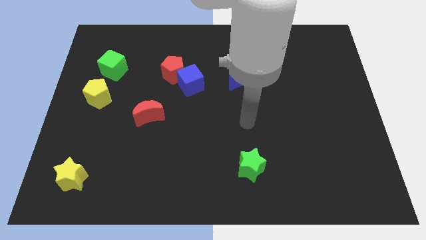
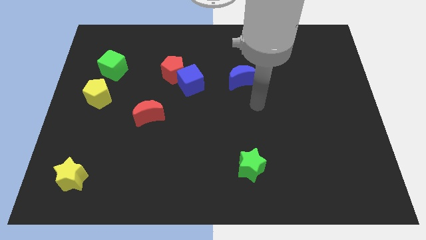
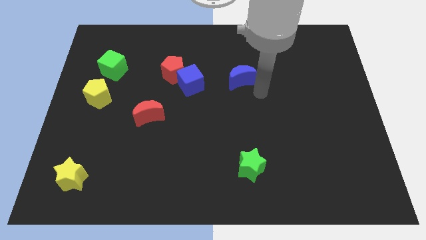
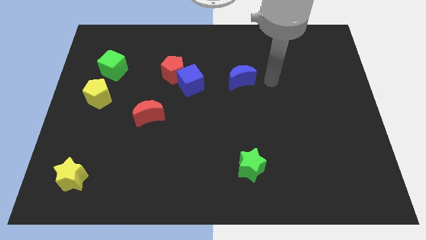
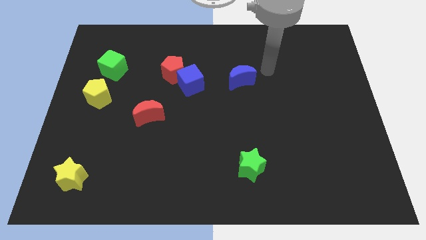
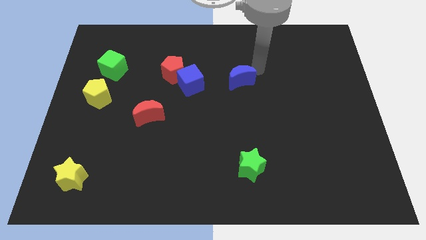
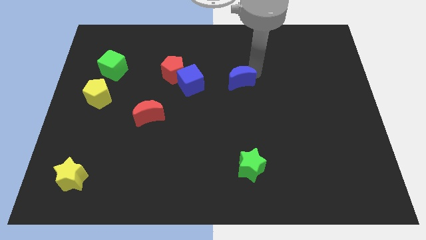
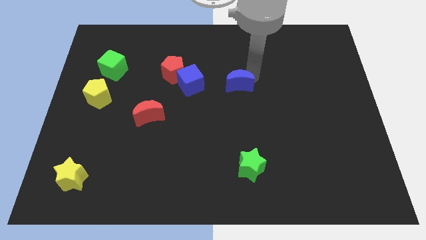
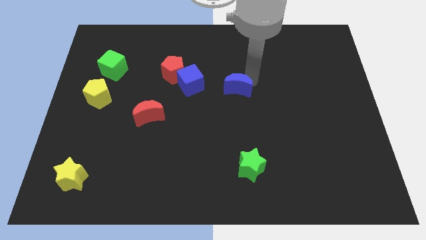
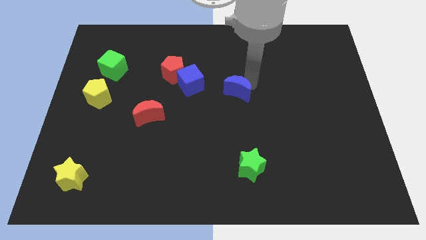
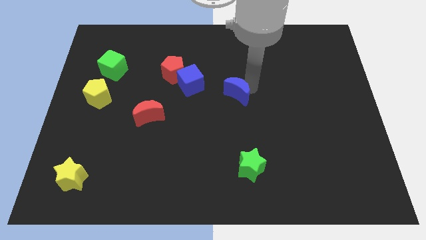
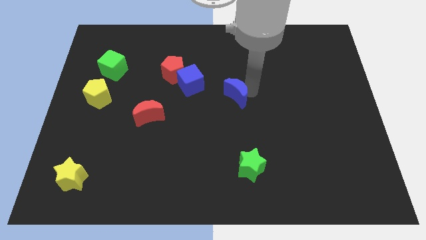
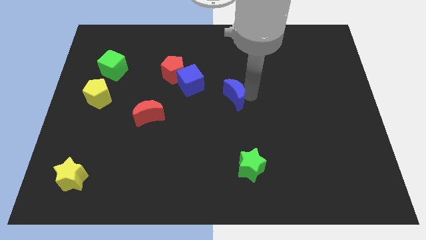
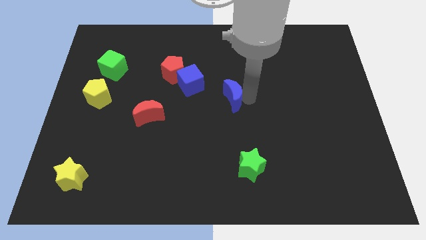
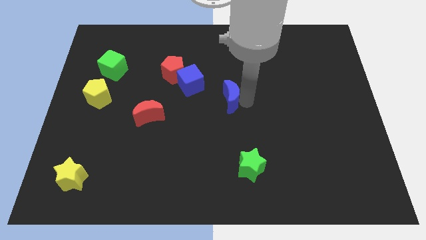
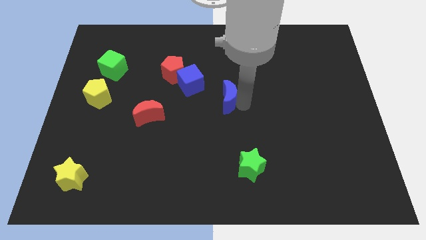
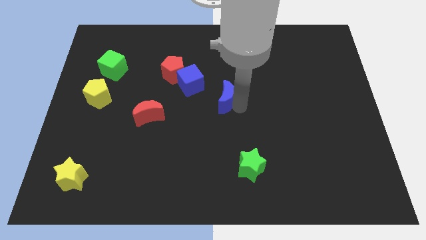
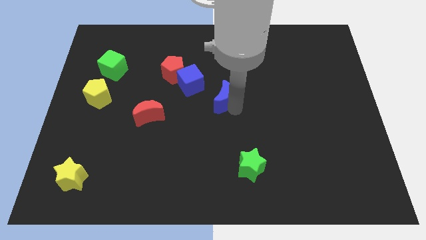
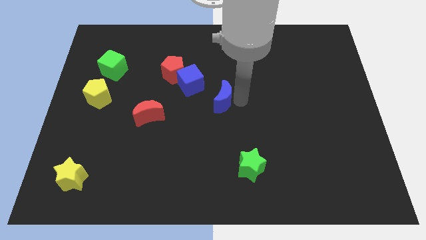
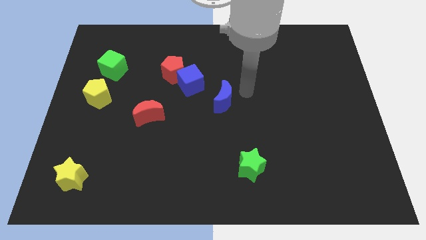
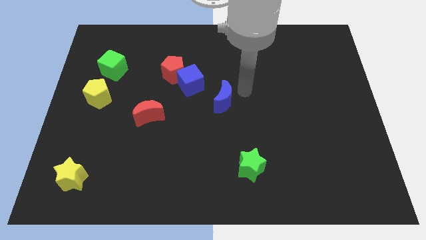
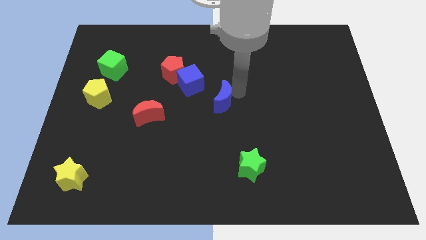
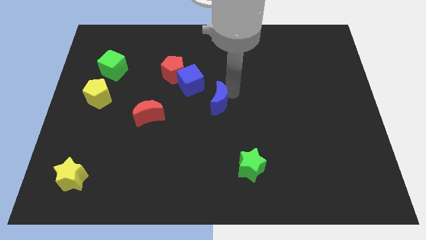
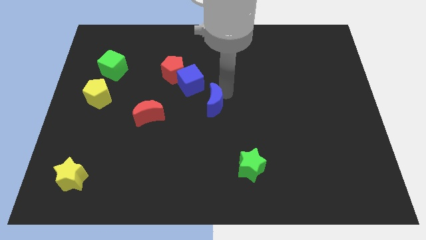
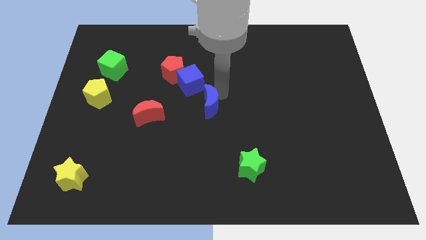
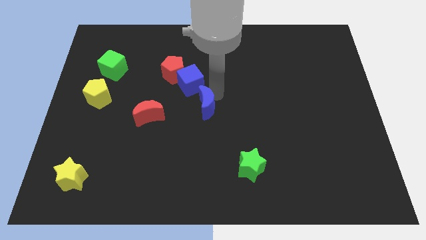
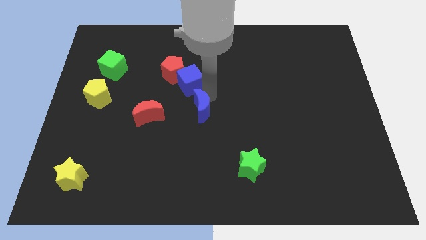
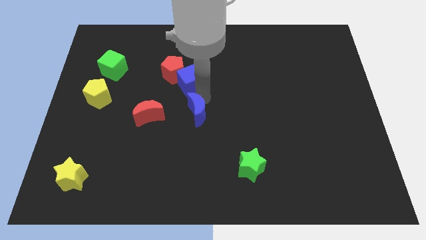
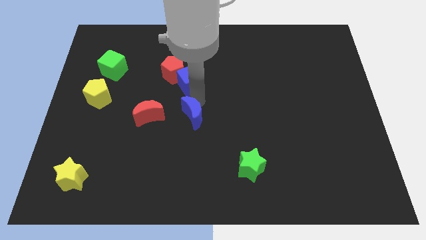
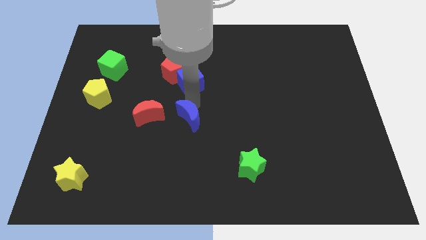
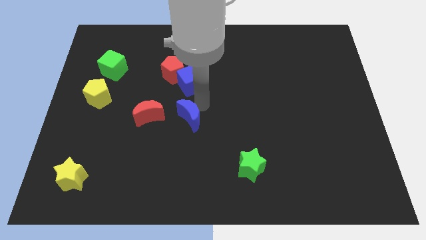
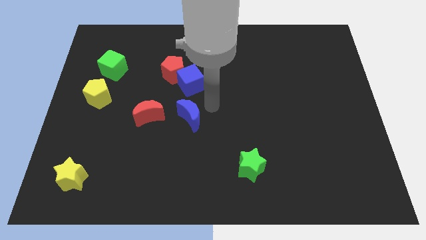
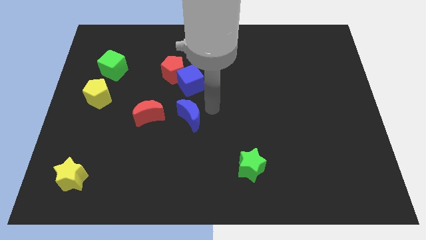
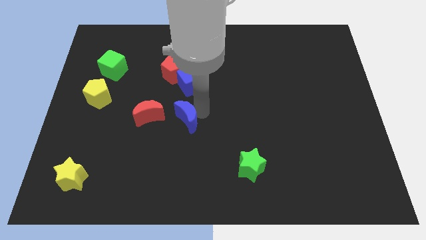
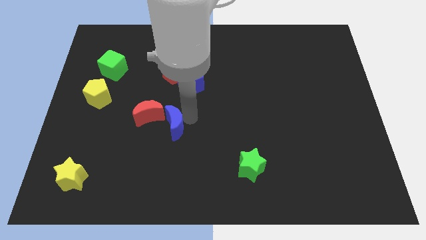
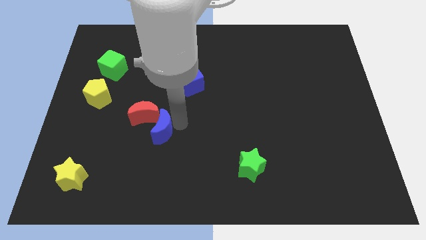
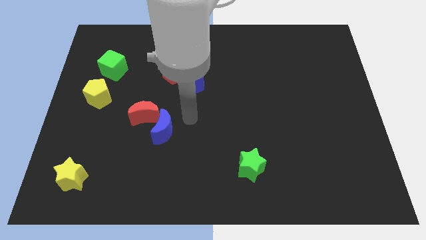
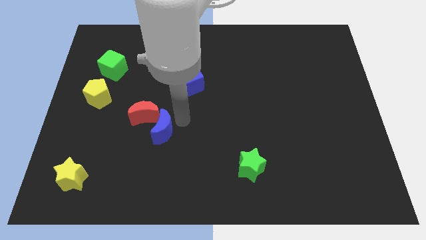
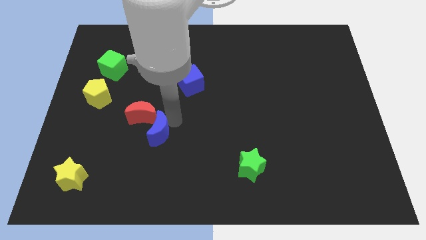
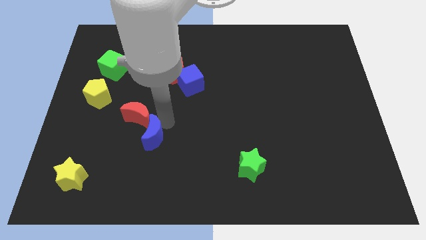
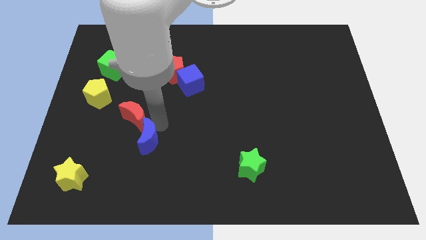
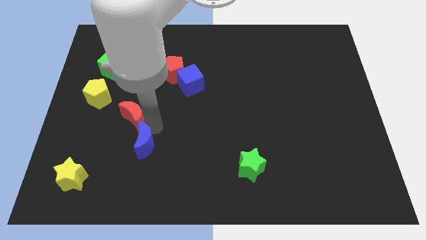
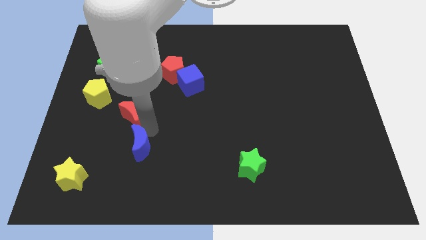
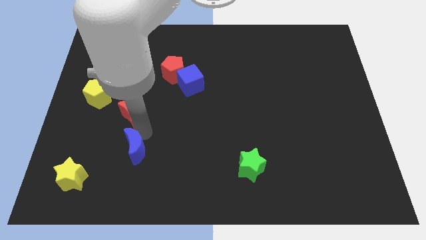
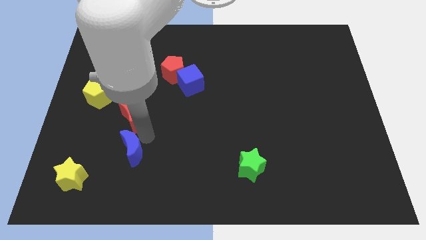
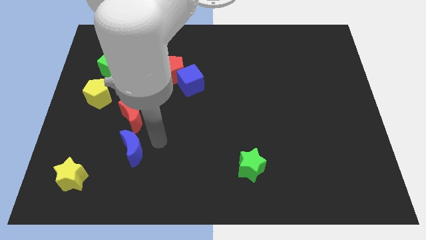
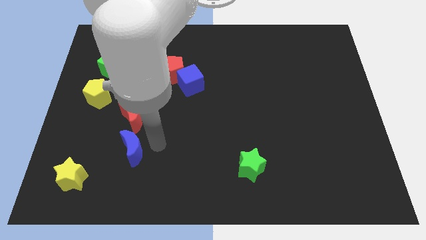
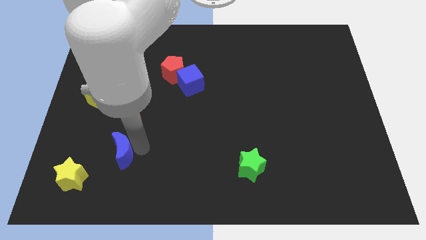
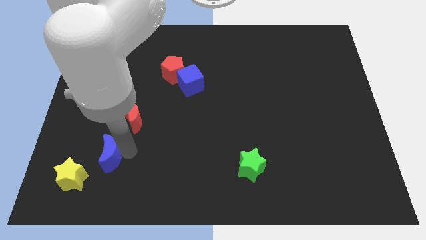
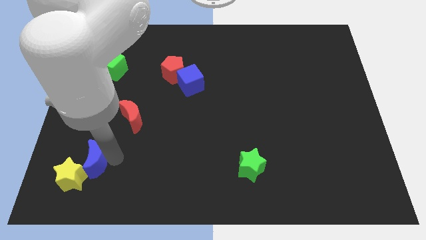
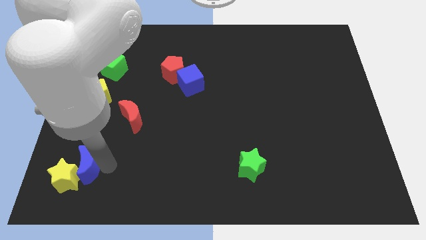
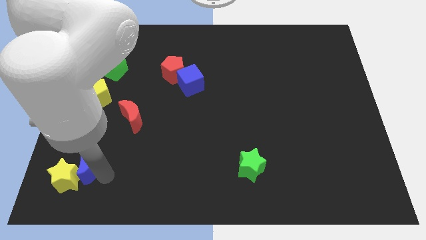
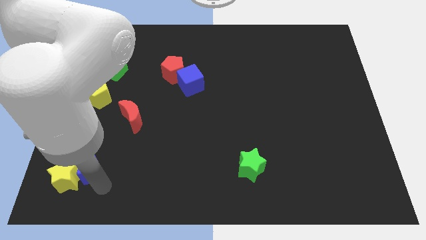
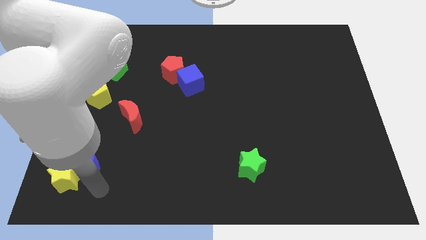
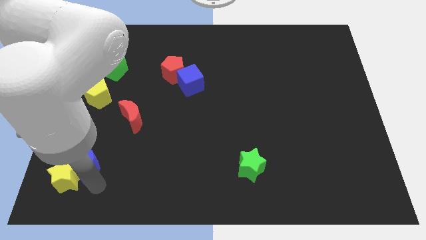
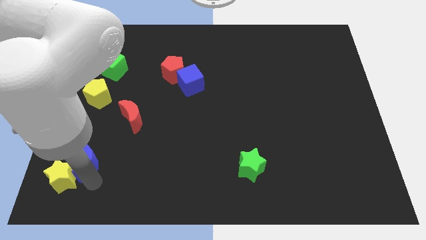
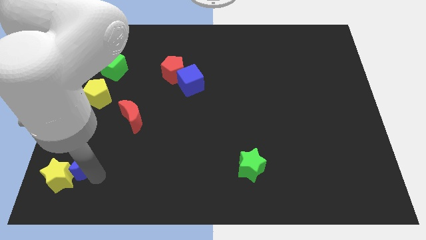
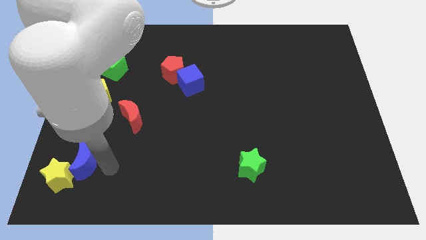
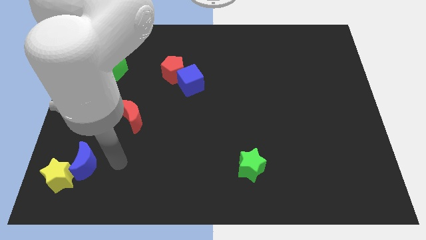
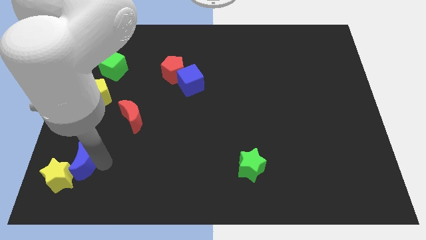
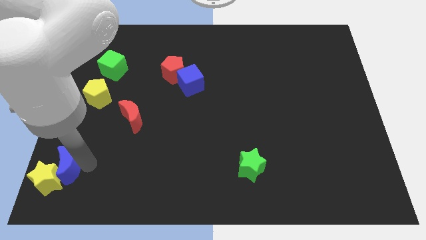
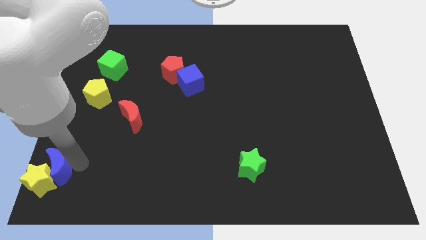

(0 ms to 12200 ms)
slide the blue moon to the bottom left of the board

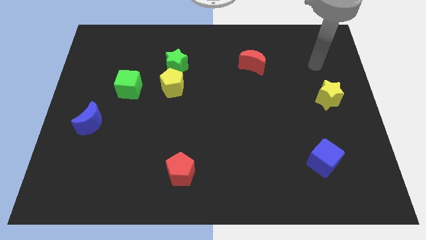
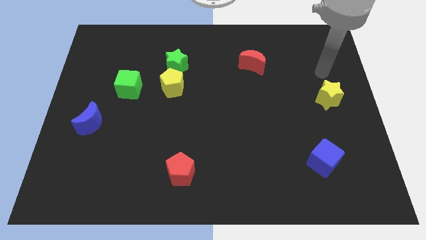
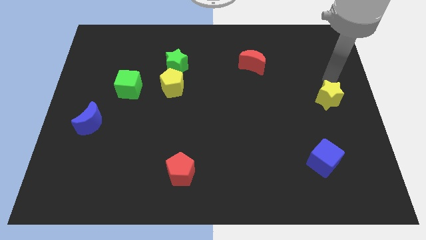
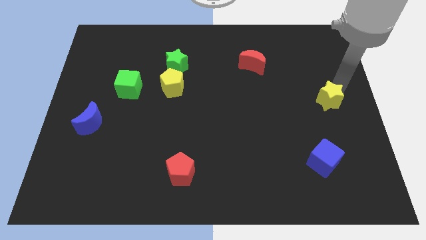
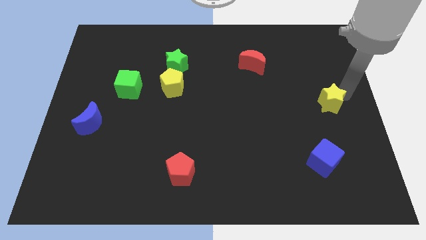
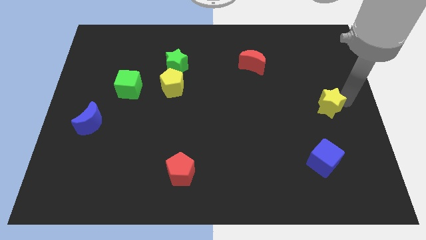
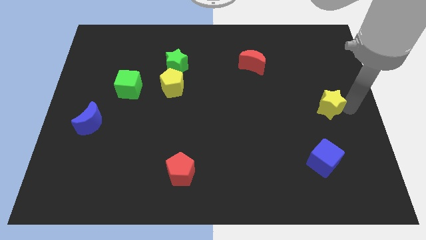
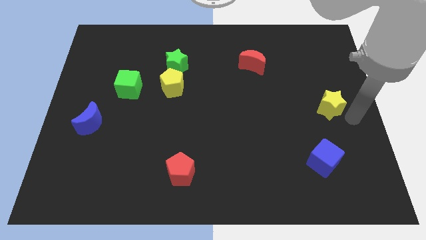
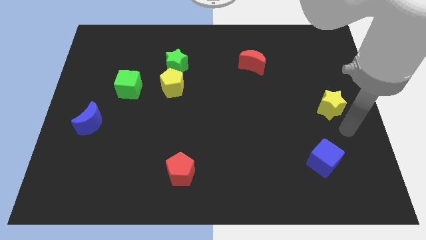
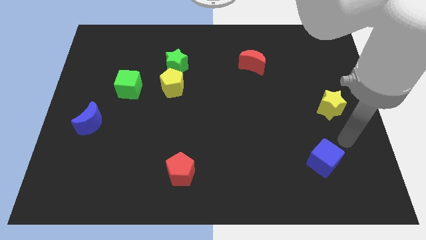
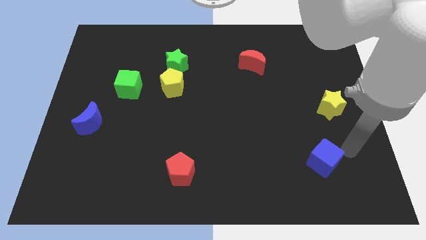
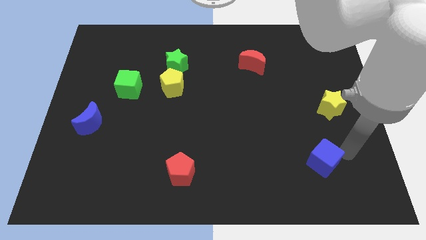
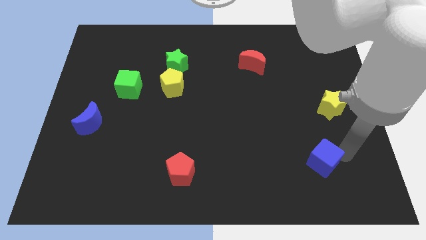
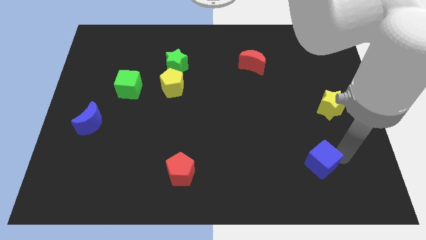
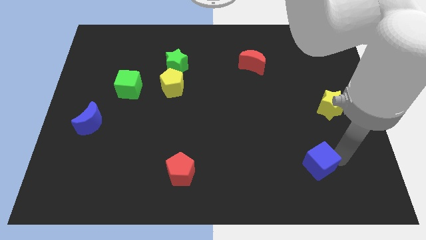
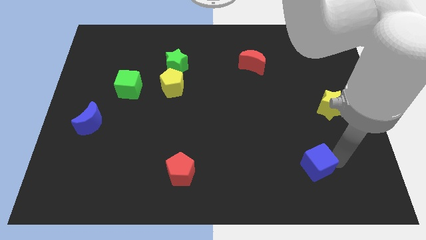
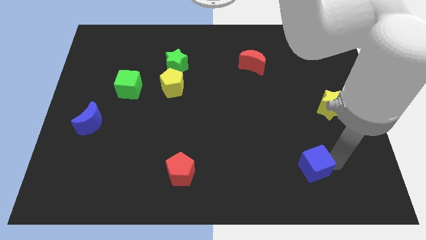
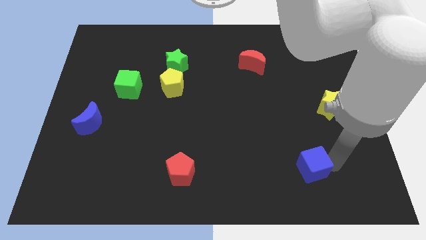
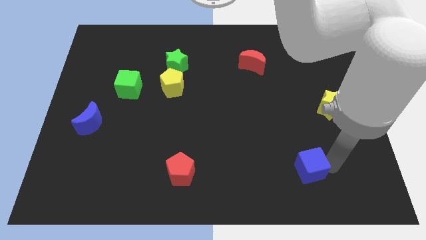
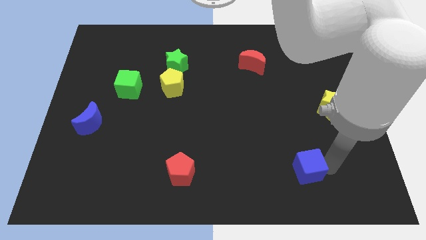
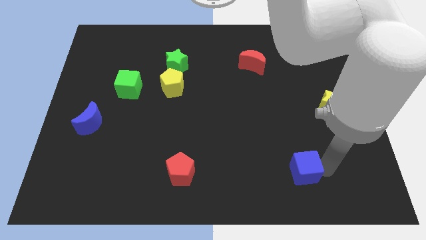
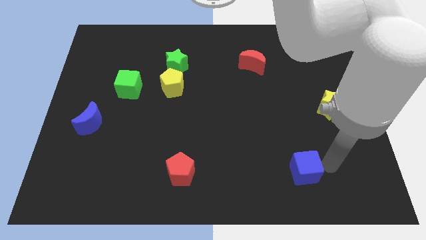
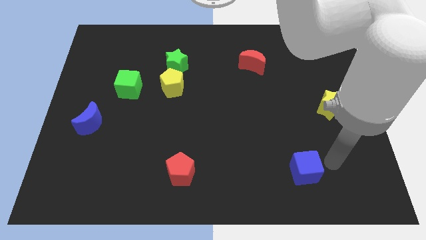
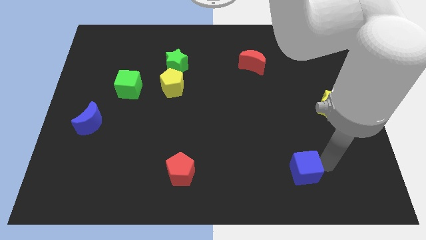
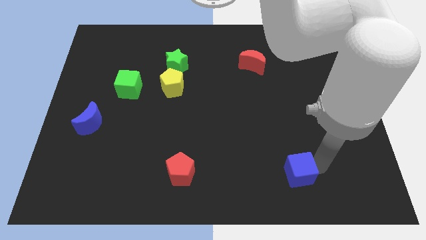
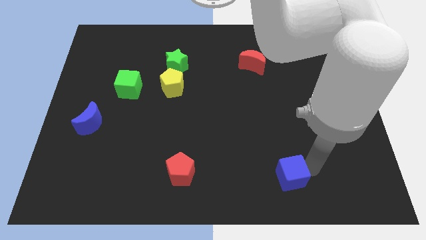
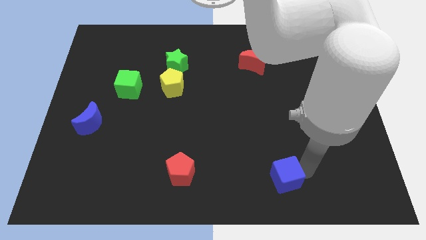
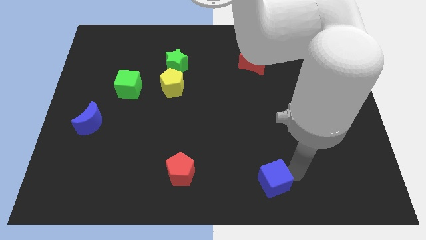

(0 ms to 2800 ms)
push the blue cube to the bottom side
